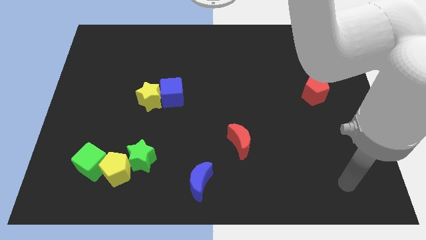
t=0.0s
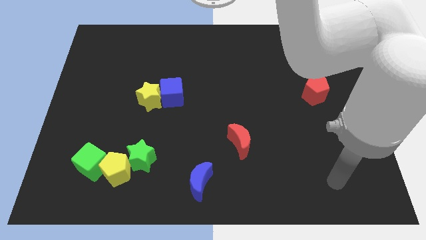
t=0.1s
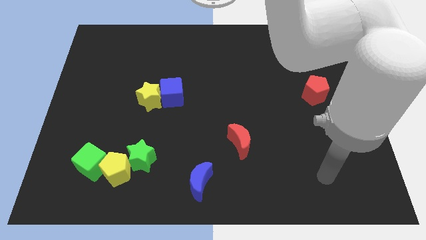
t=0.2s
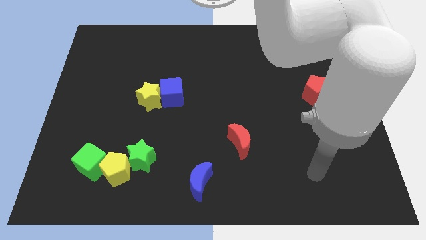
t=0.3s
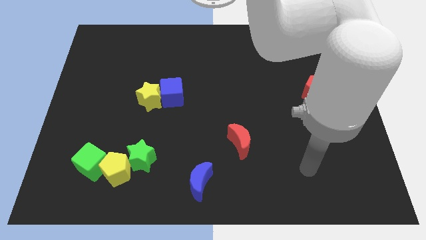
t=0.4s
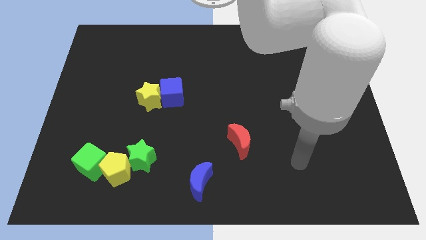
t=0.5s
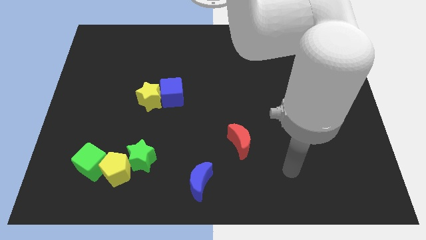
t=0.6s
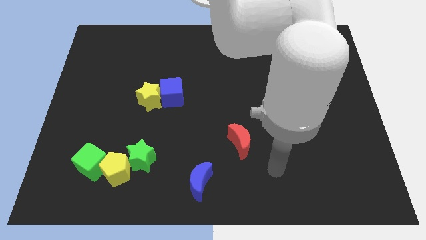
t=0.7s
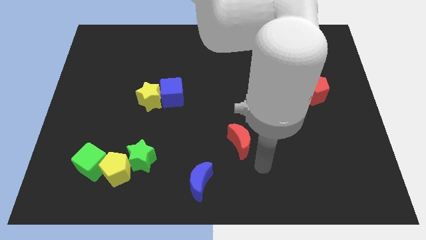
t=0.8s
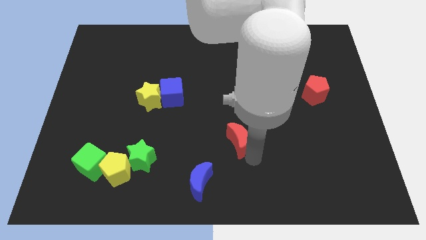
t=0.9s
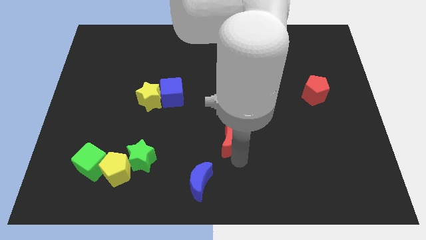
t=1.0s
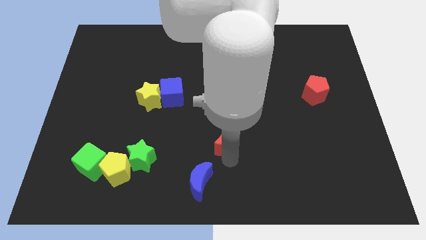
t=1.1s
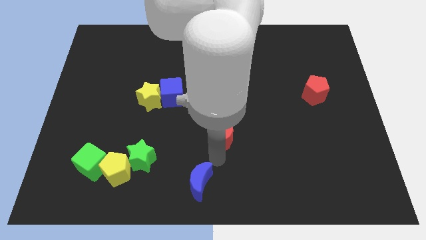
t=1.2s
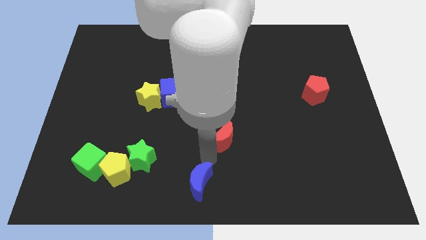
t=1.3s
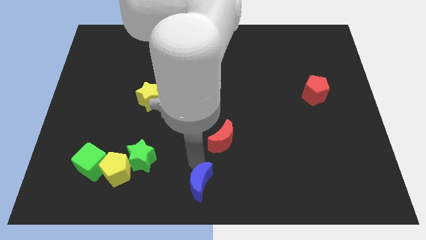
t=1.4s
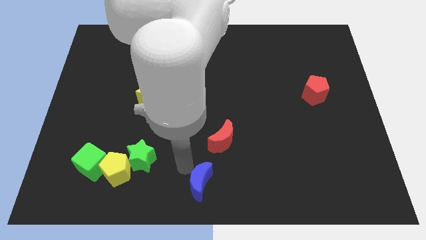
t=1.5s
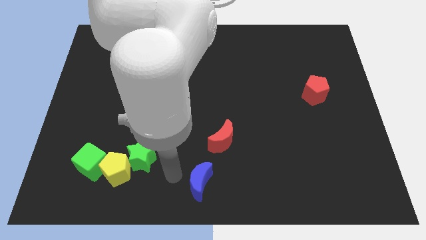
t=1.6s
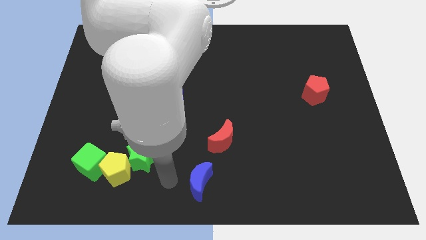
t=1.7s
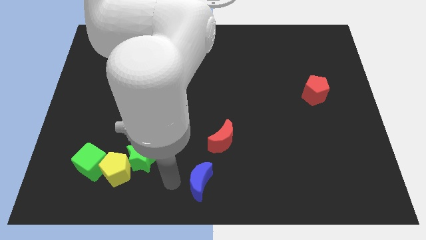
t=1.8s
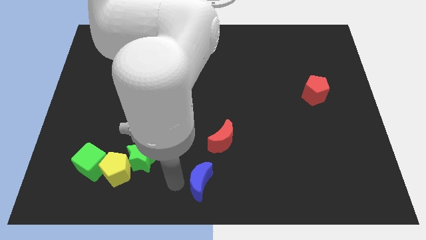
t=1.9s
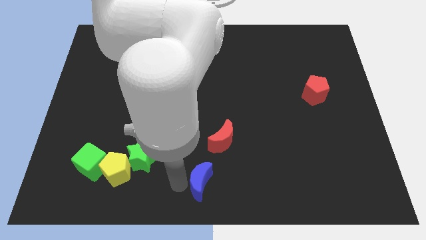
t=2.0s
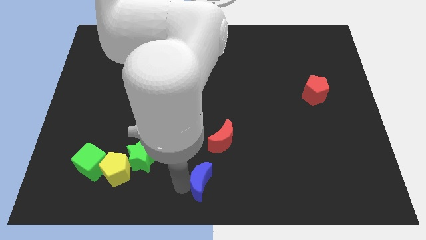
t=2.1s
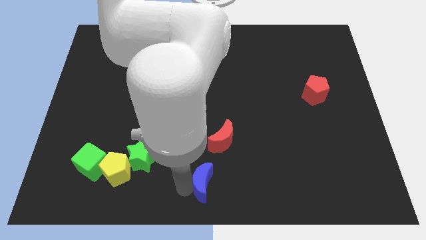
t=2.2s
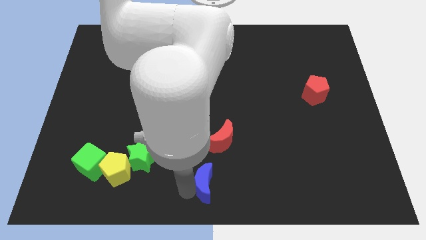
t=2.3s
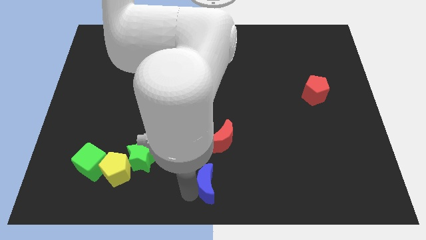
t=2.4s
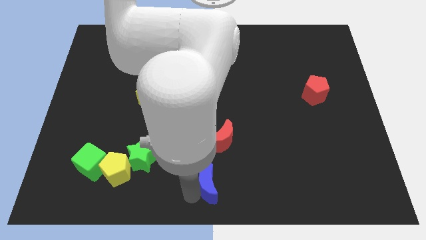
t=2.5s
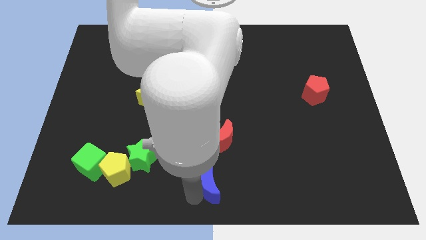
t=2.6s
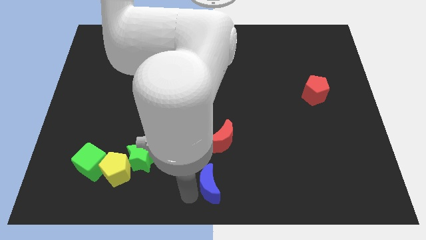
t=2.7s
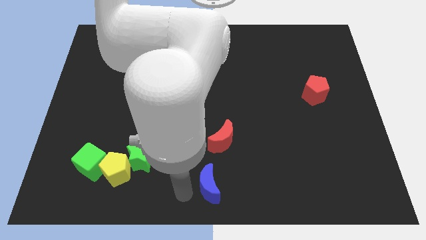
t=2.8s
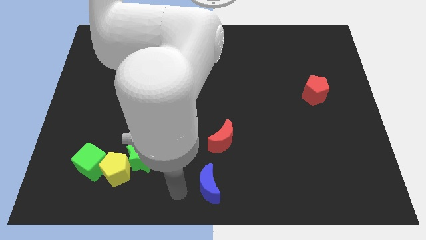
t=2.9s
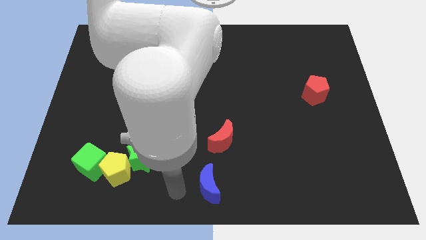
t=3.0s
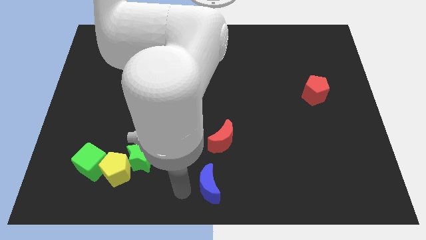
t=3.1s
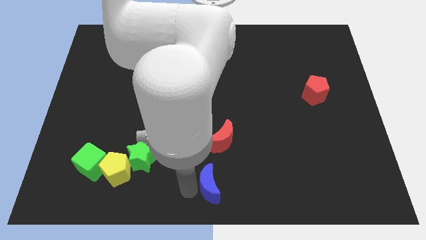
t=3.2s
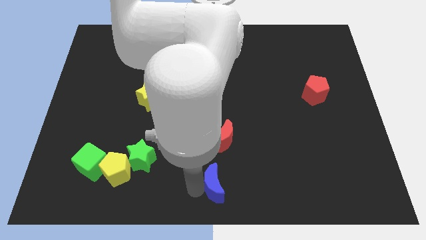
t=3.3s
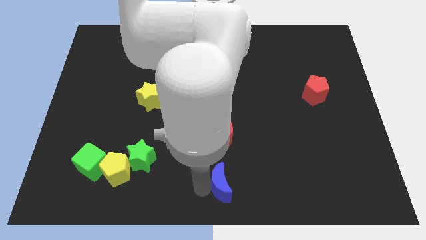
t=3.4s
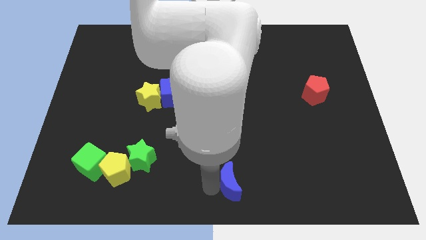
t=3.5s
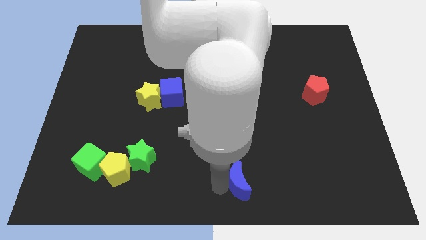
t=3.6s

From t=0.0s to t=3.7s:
move the blue moon a bit right

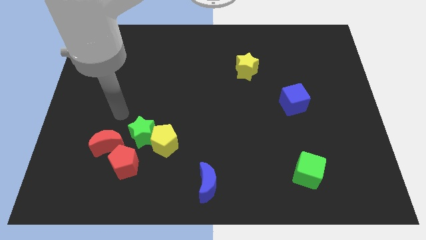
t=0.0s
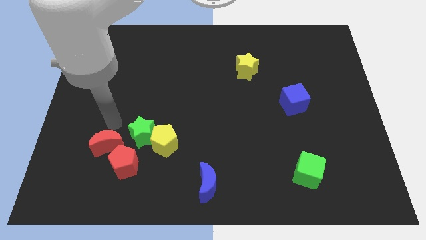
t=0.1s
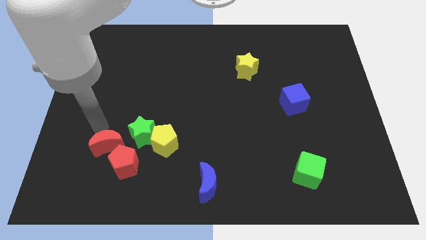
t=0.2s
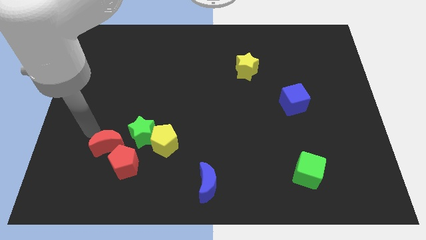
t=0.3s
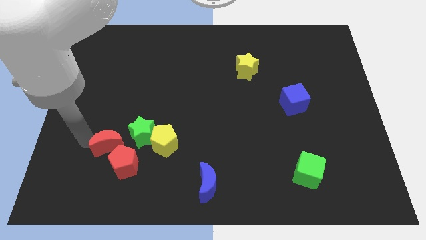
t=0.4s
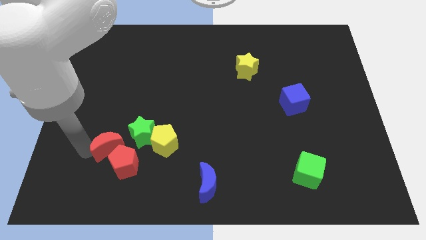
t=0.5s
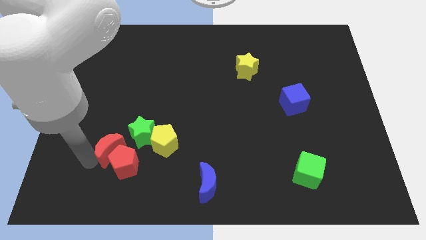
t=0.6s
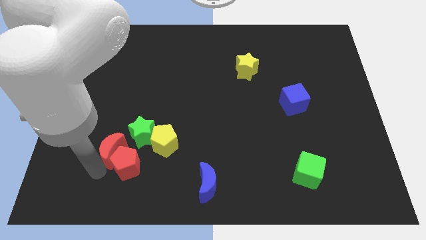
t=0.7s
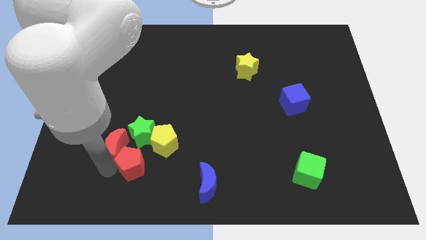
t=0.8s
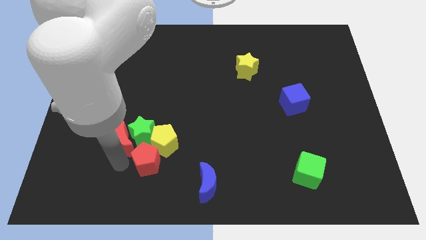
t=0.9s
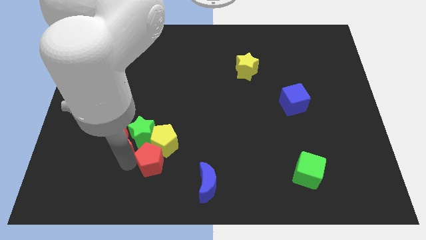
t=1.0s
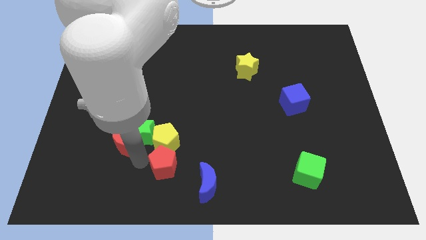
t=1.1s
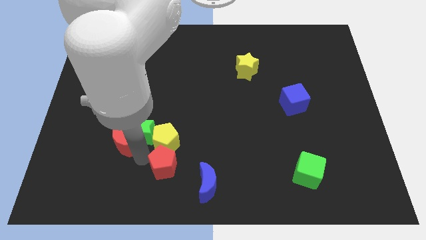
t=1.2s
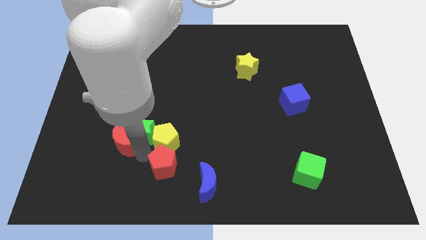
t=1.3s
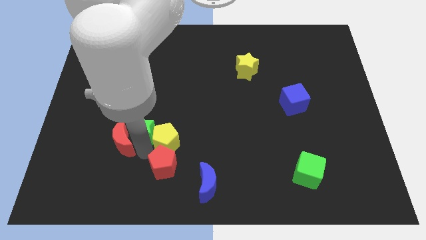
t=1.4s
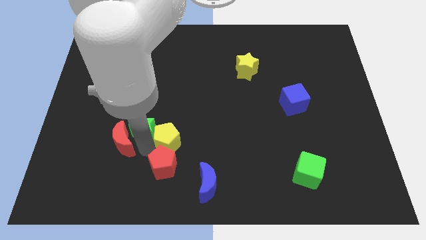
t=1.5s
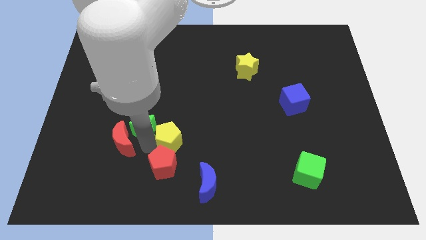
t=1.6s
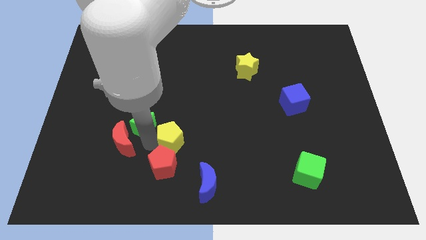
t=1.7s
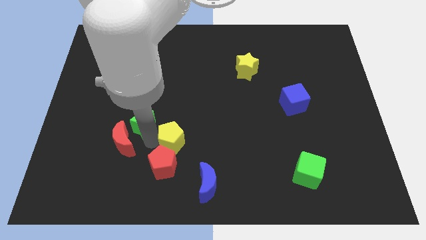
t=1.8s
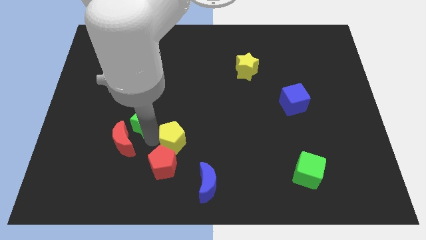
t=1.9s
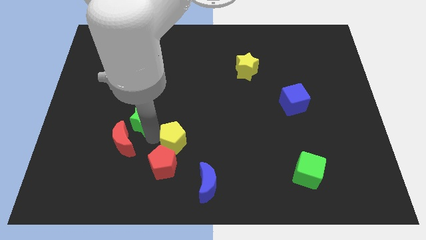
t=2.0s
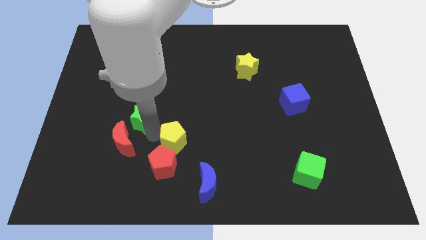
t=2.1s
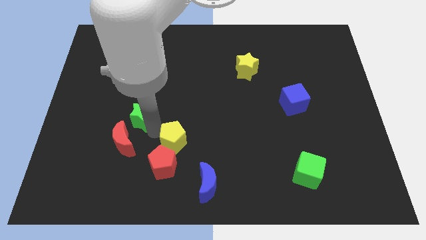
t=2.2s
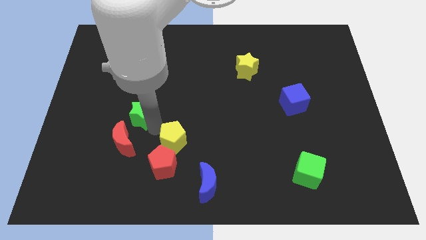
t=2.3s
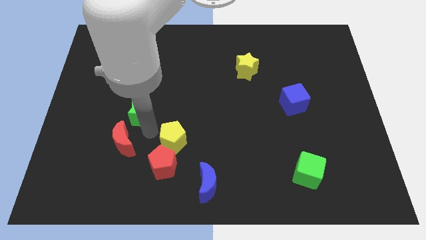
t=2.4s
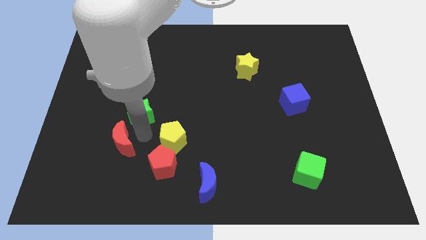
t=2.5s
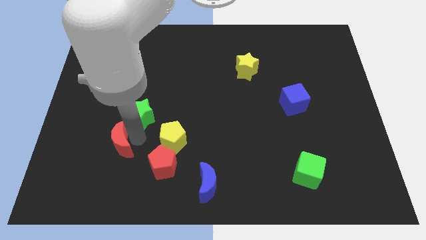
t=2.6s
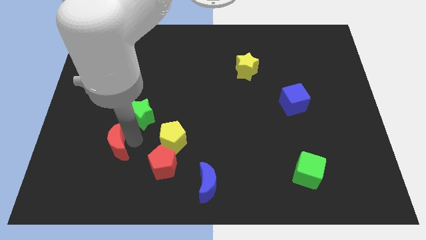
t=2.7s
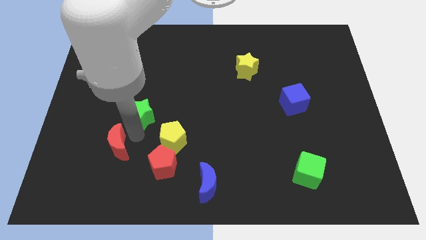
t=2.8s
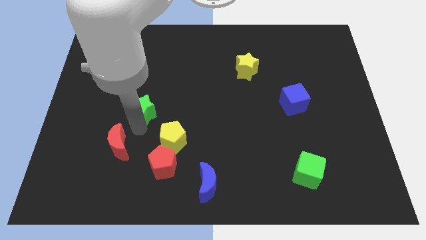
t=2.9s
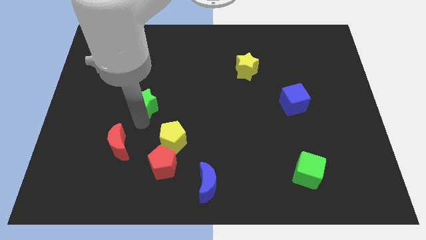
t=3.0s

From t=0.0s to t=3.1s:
slightly move the green star upwards

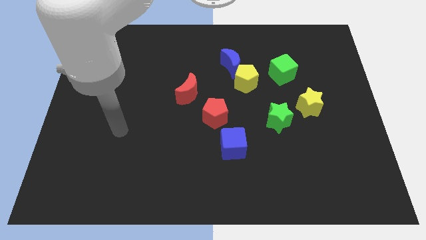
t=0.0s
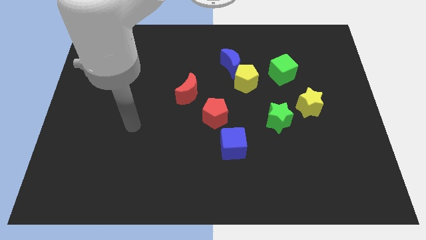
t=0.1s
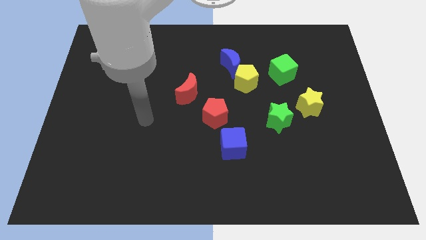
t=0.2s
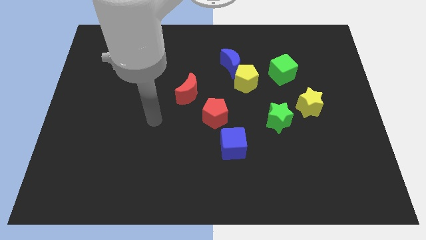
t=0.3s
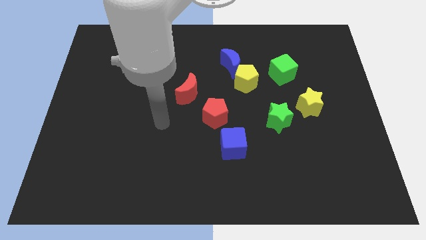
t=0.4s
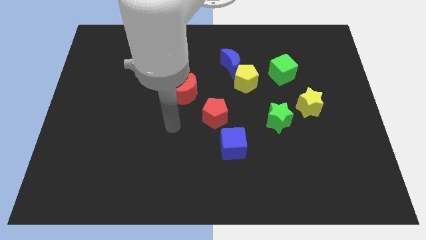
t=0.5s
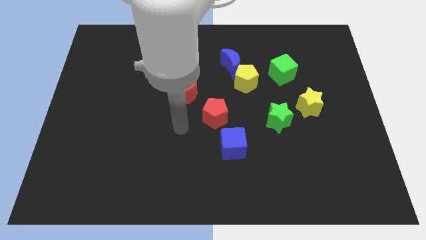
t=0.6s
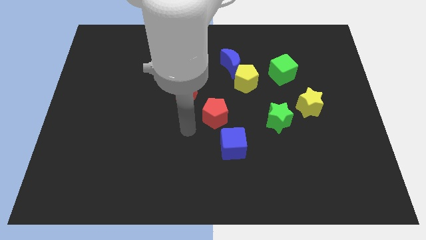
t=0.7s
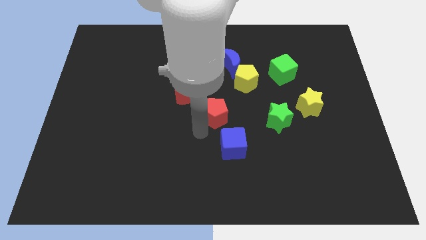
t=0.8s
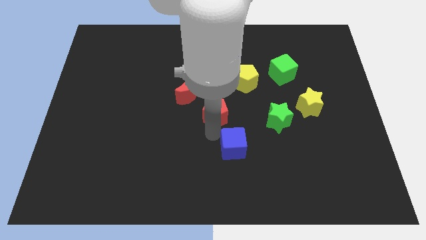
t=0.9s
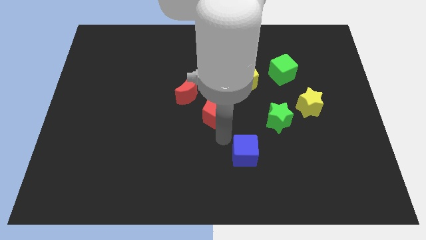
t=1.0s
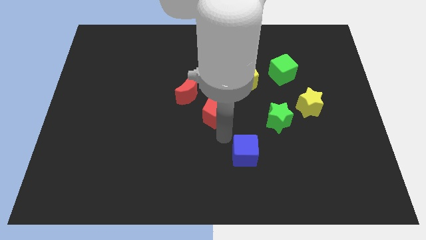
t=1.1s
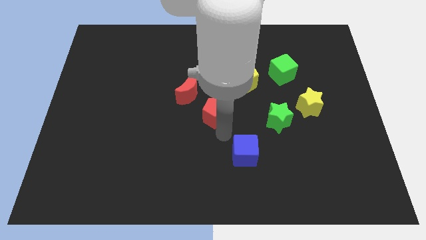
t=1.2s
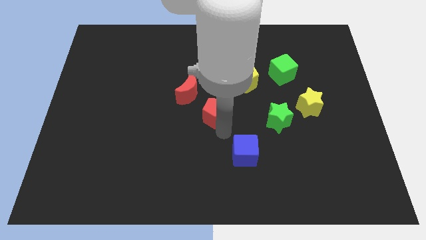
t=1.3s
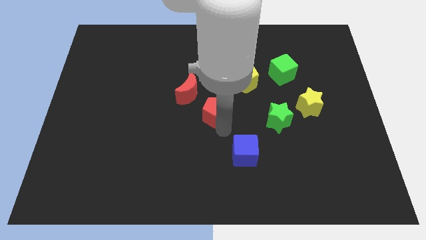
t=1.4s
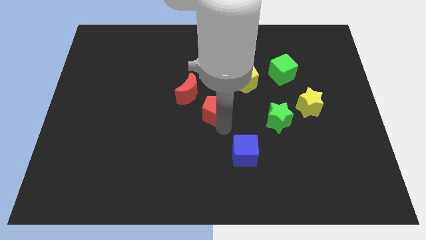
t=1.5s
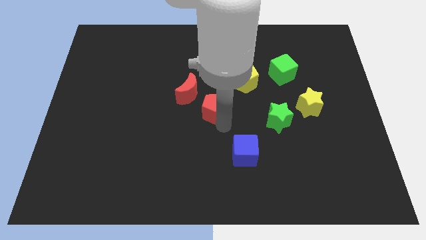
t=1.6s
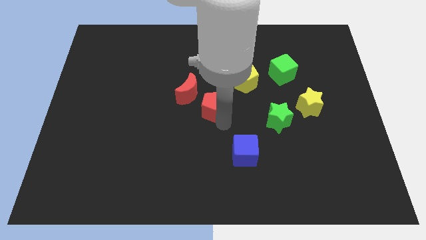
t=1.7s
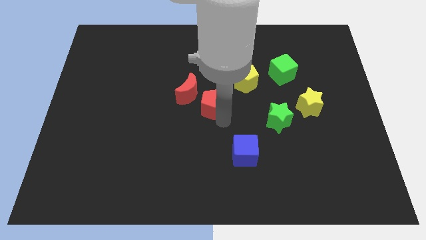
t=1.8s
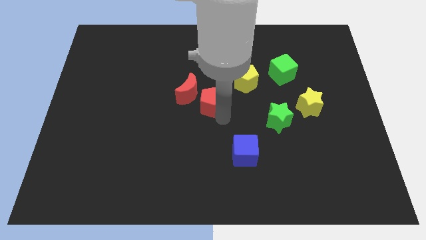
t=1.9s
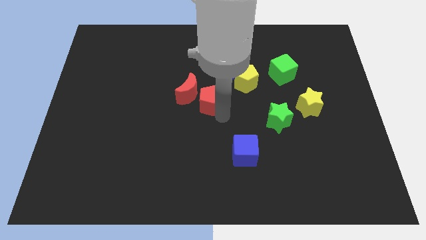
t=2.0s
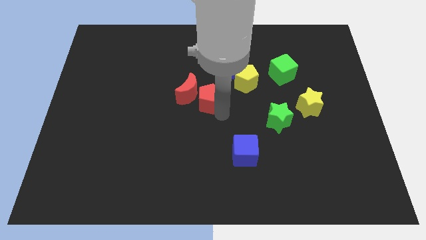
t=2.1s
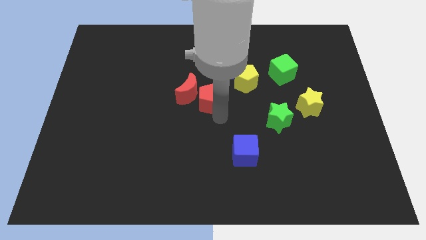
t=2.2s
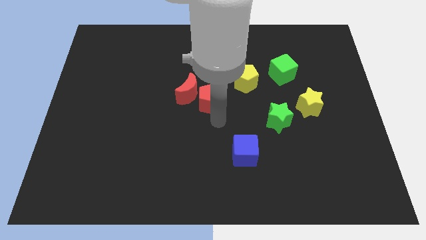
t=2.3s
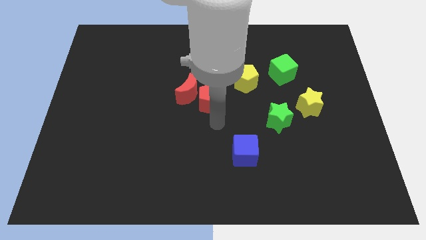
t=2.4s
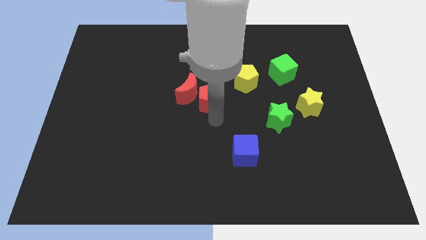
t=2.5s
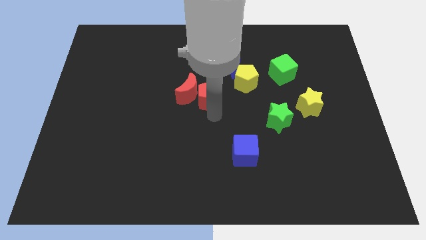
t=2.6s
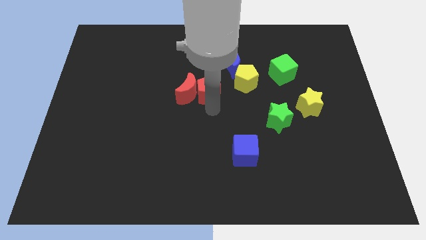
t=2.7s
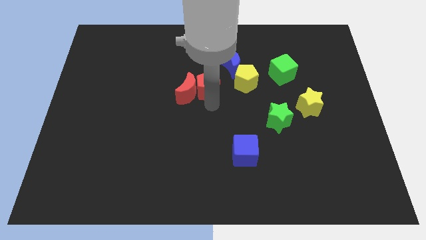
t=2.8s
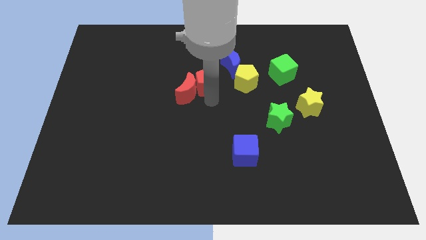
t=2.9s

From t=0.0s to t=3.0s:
slide the red pentagon a bit upwards and to the left diagonally
